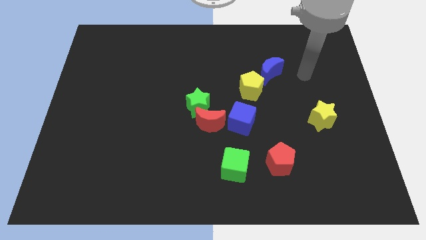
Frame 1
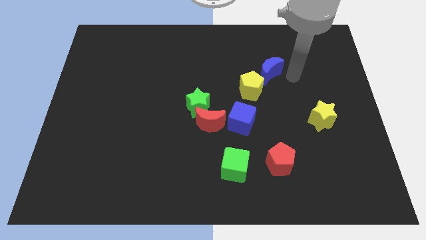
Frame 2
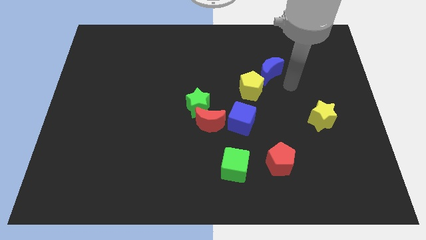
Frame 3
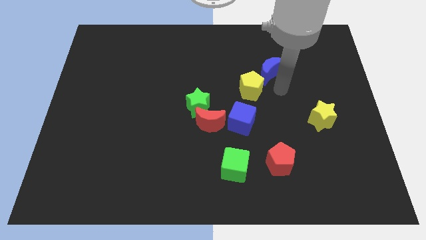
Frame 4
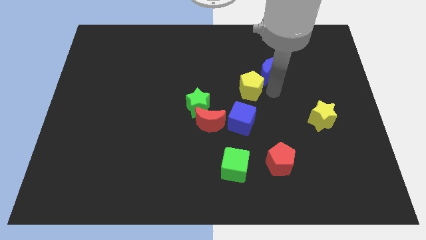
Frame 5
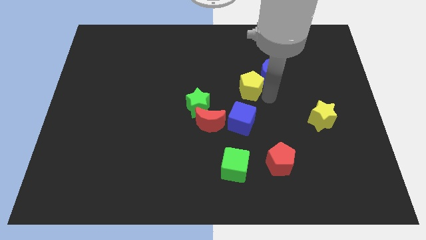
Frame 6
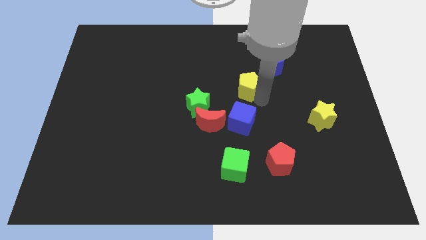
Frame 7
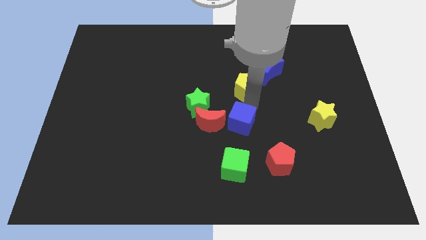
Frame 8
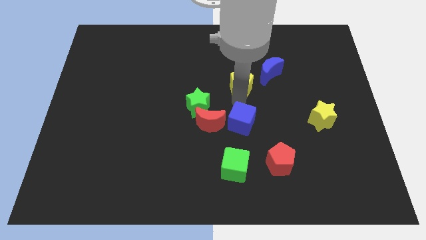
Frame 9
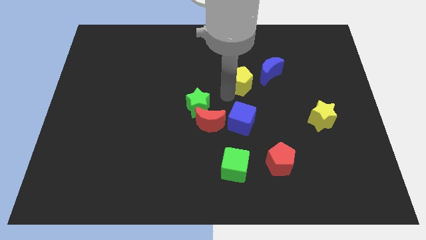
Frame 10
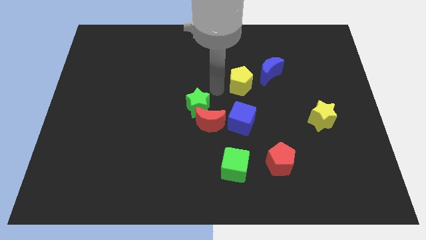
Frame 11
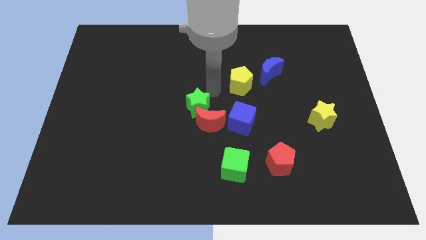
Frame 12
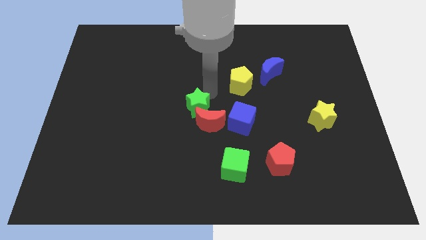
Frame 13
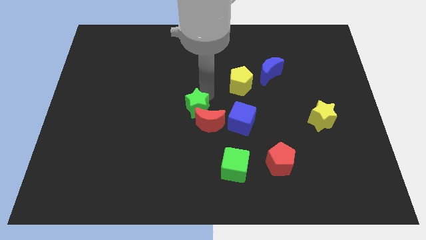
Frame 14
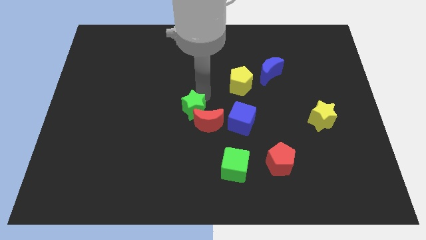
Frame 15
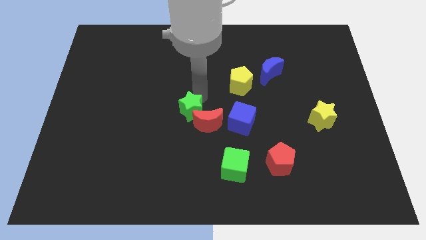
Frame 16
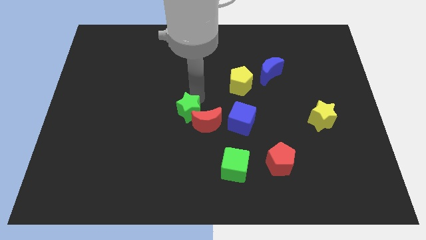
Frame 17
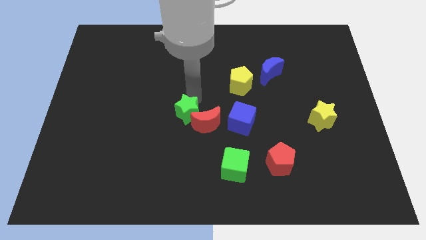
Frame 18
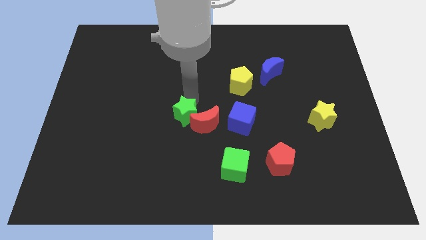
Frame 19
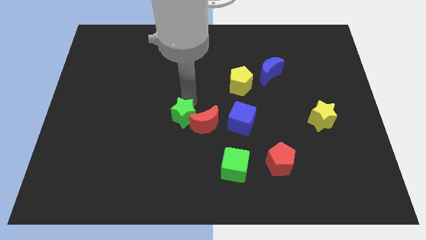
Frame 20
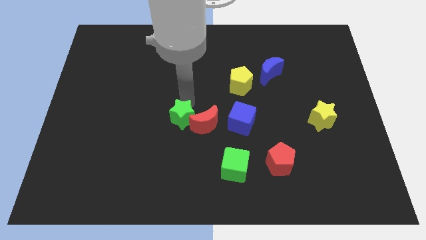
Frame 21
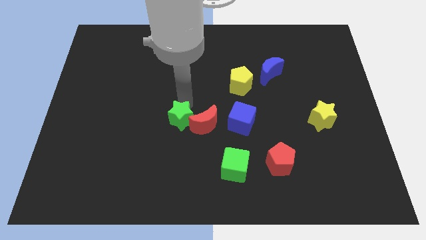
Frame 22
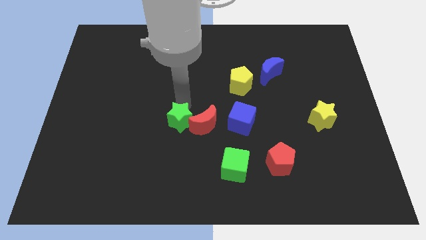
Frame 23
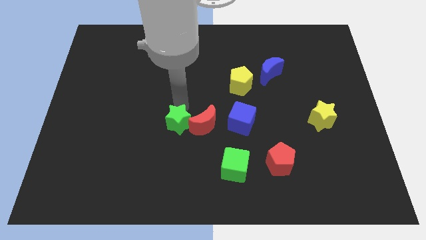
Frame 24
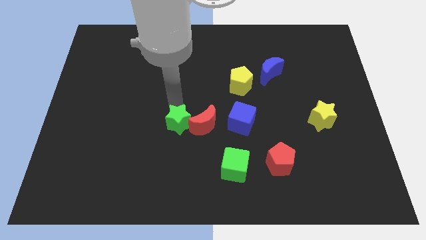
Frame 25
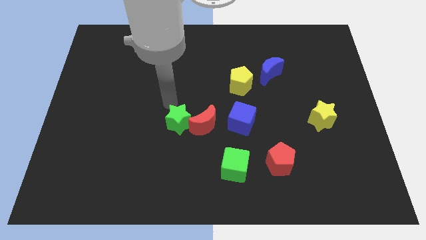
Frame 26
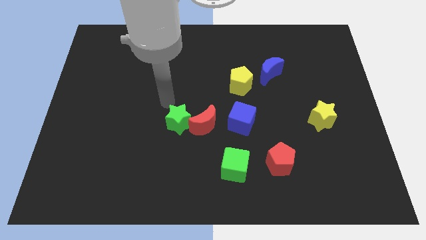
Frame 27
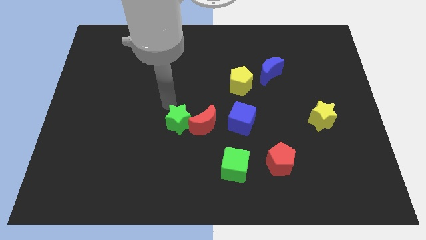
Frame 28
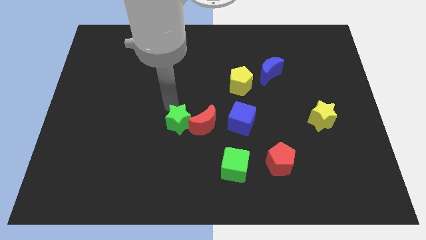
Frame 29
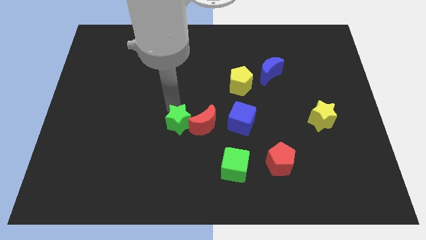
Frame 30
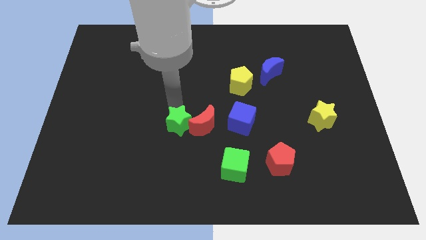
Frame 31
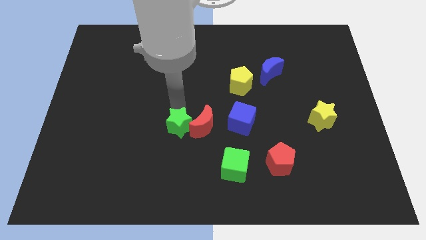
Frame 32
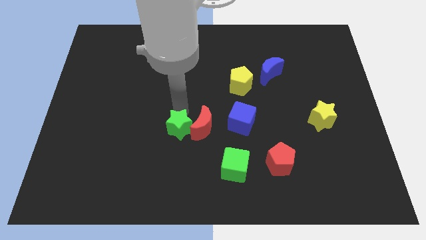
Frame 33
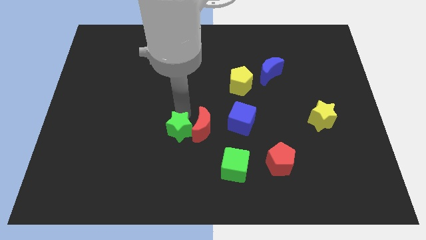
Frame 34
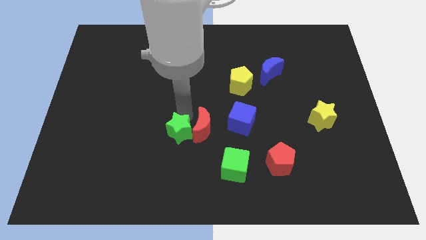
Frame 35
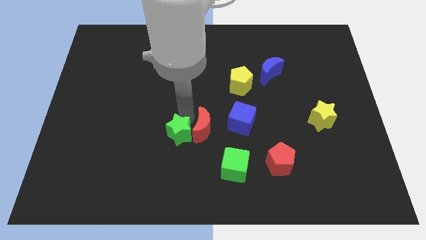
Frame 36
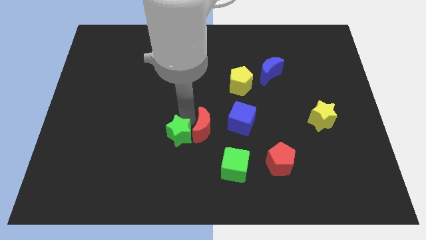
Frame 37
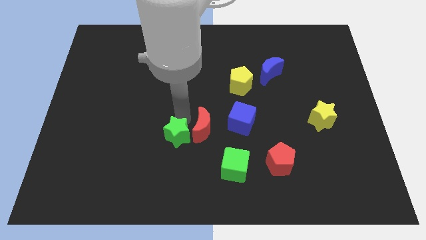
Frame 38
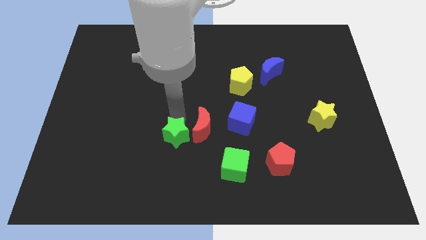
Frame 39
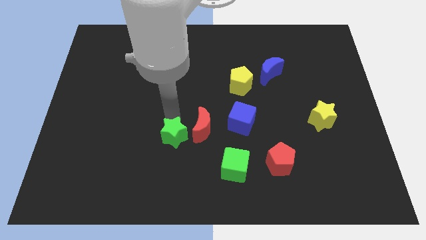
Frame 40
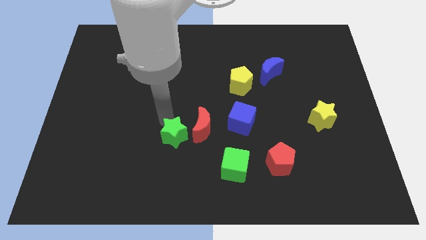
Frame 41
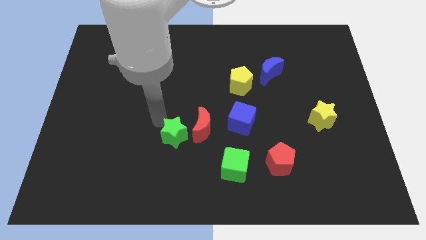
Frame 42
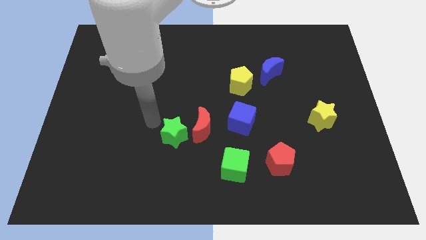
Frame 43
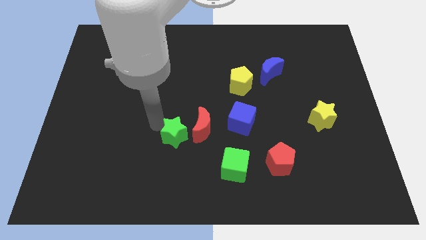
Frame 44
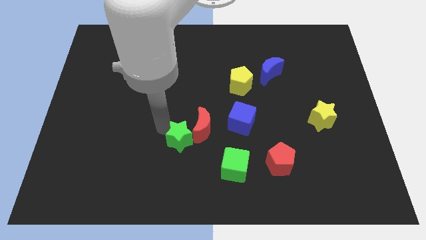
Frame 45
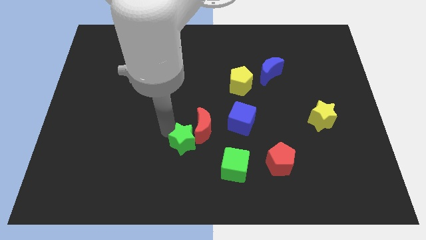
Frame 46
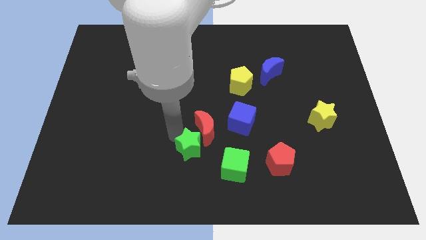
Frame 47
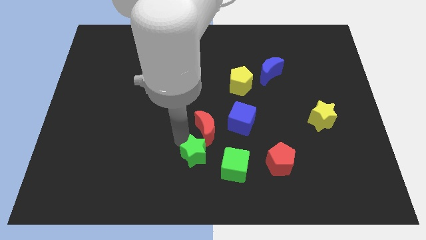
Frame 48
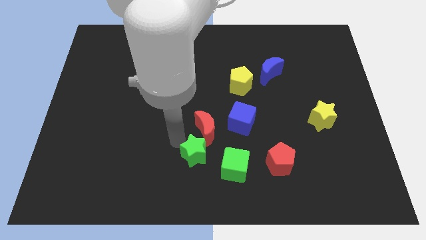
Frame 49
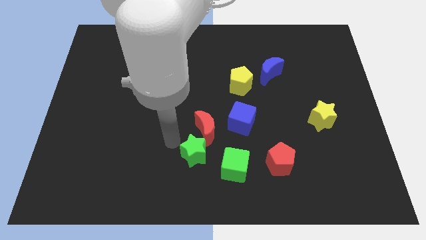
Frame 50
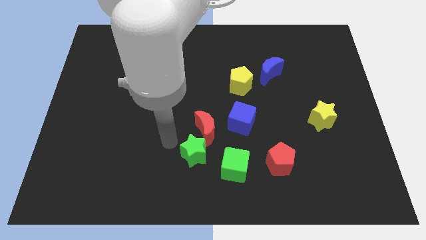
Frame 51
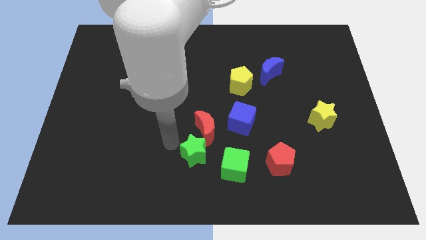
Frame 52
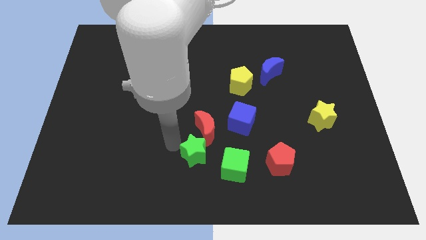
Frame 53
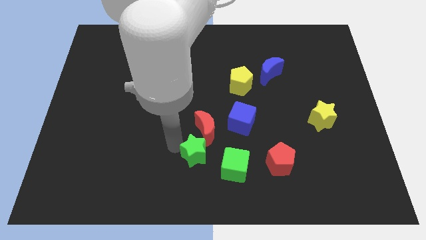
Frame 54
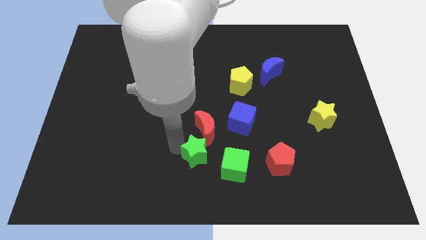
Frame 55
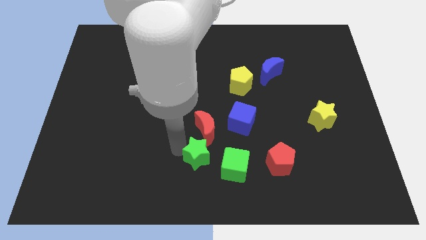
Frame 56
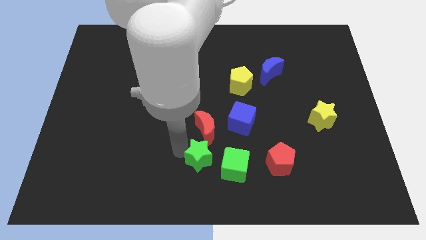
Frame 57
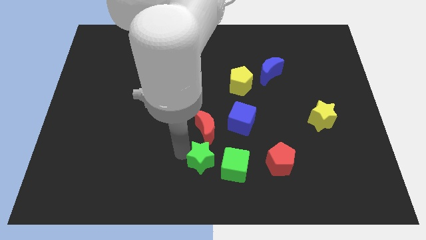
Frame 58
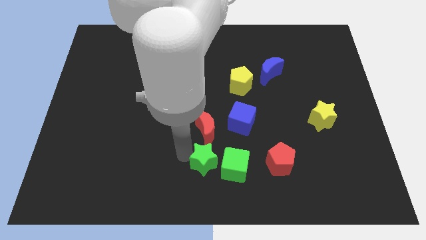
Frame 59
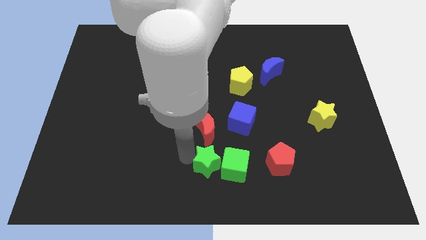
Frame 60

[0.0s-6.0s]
put the green star towards the green cube
